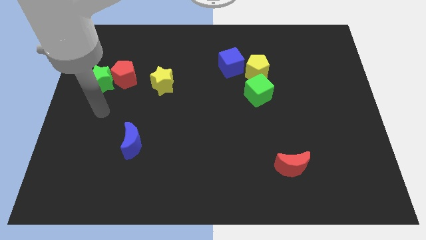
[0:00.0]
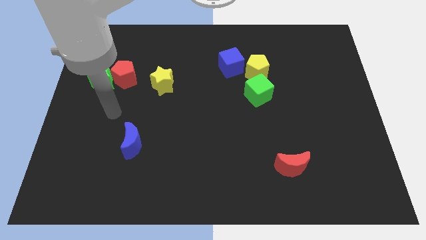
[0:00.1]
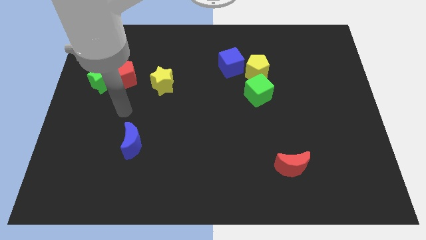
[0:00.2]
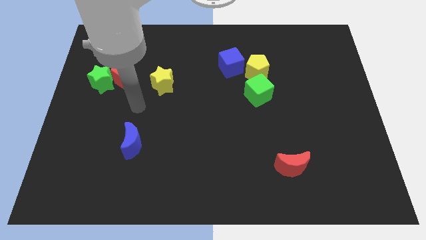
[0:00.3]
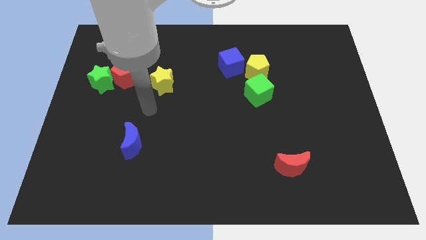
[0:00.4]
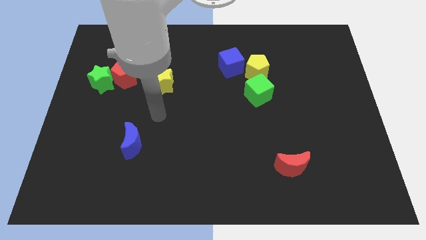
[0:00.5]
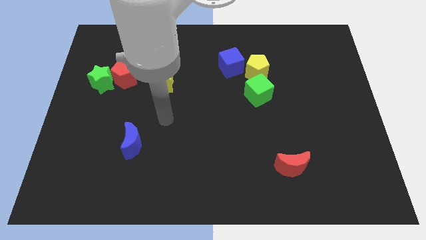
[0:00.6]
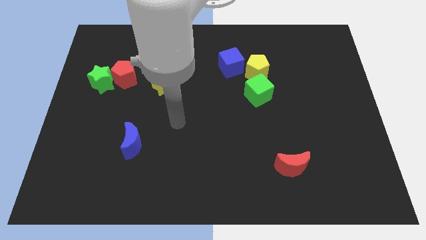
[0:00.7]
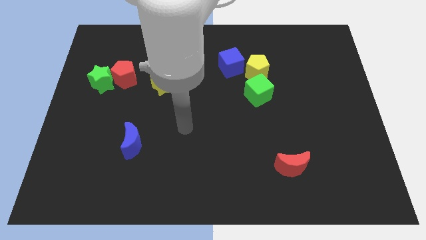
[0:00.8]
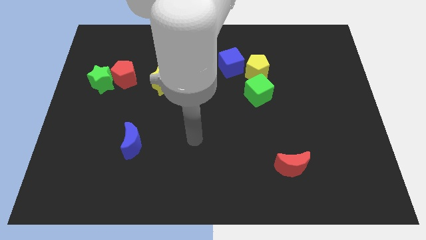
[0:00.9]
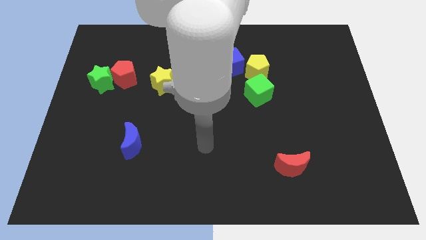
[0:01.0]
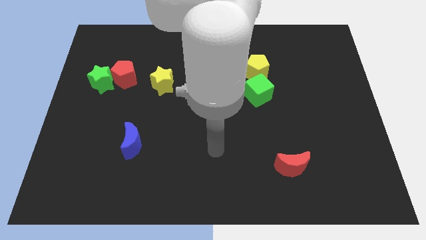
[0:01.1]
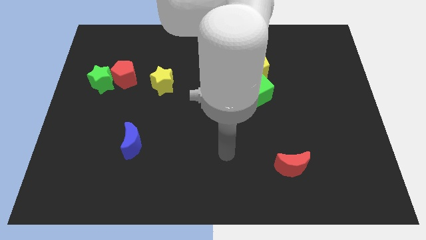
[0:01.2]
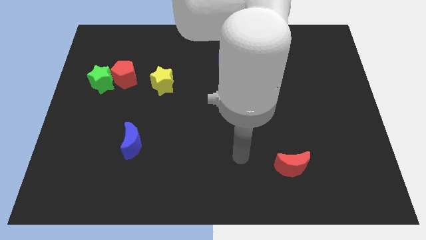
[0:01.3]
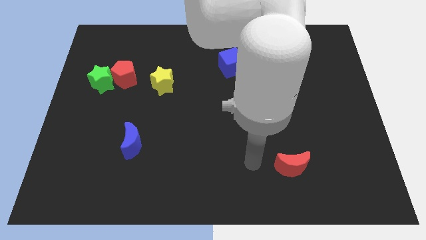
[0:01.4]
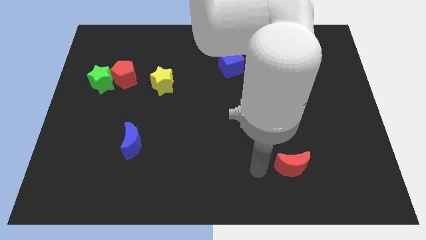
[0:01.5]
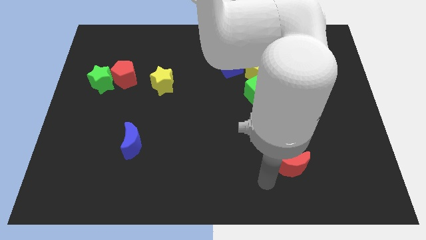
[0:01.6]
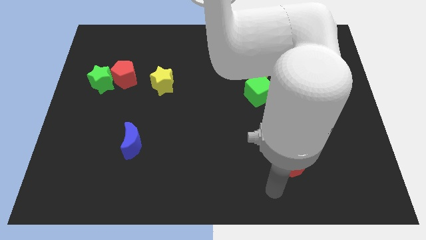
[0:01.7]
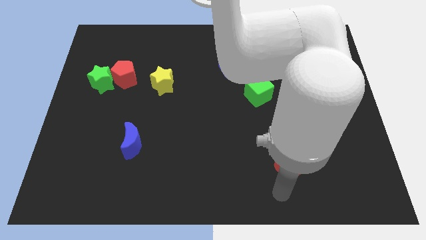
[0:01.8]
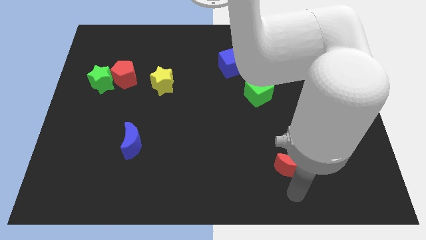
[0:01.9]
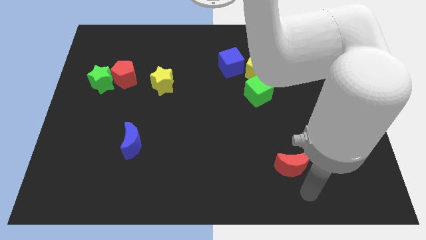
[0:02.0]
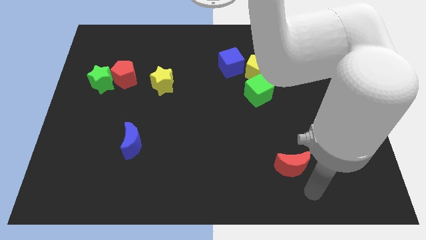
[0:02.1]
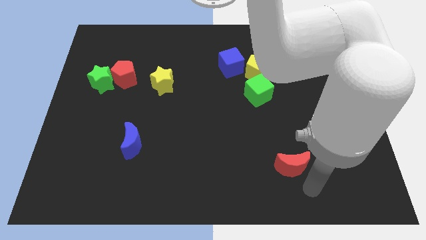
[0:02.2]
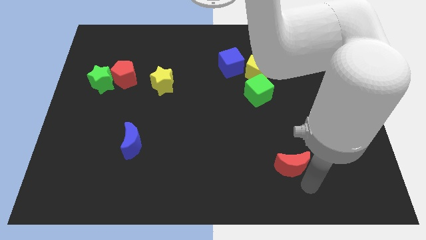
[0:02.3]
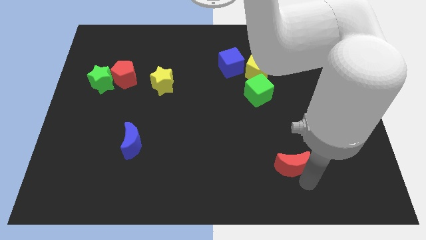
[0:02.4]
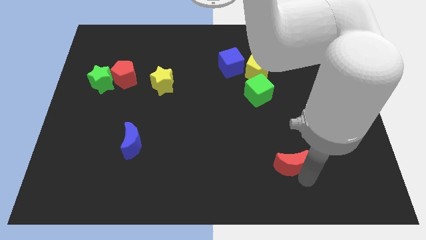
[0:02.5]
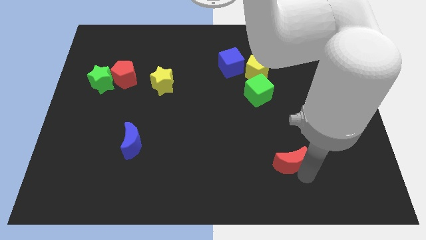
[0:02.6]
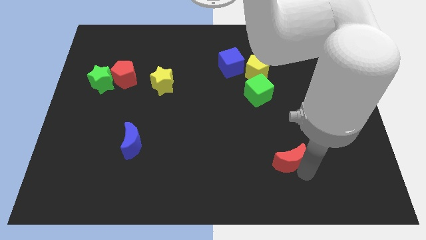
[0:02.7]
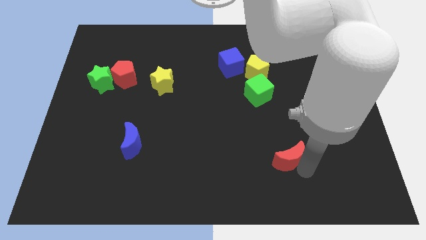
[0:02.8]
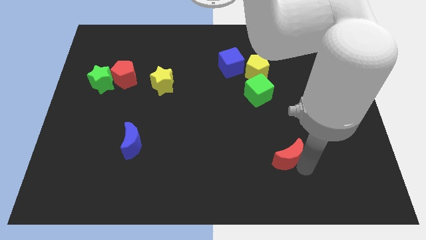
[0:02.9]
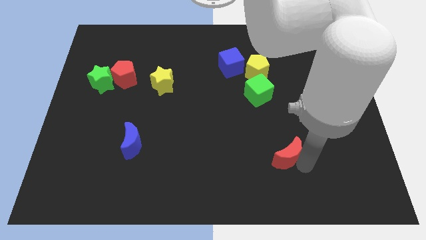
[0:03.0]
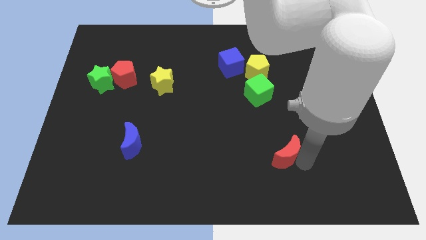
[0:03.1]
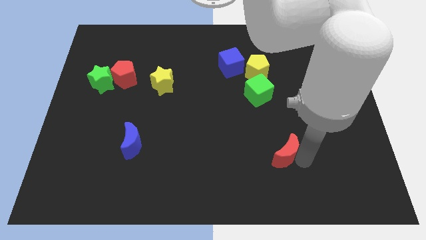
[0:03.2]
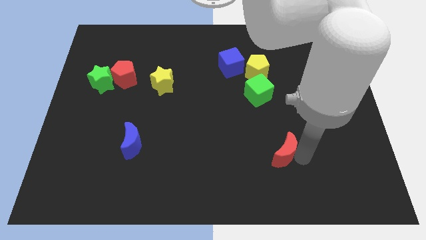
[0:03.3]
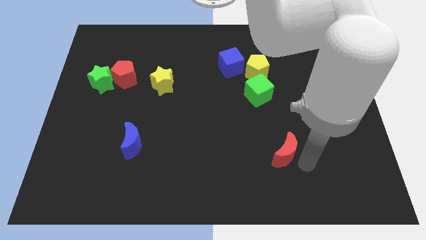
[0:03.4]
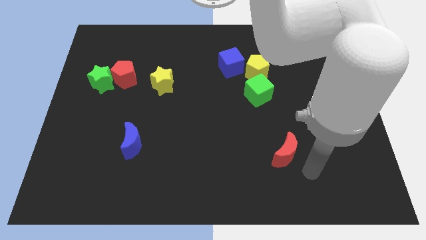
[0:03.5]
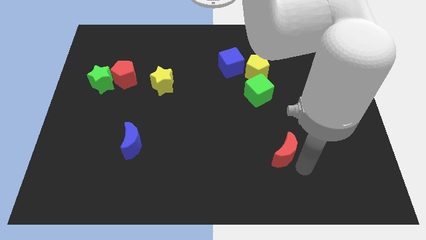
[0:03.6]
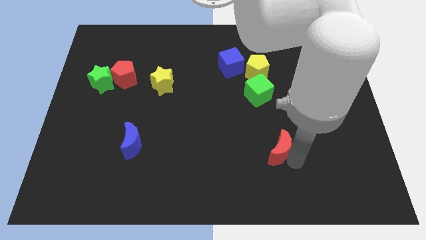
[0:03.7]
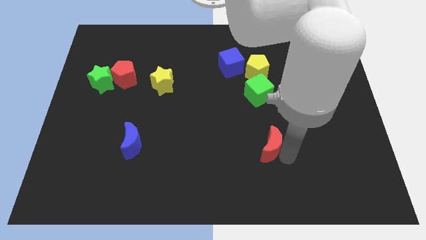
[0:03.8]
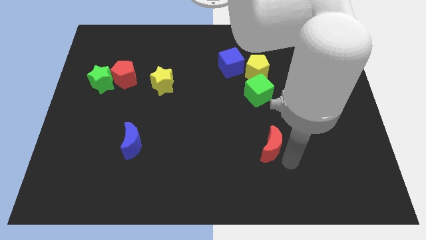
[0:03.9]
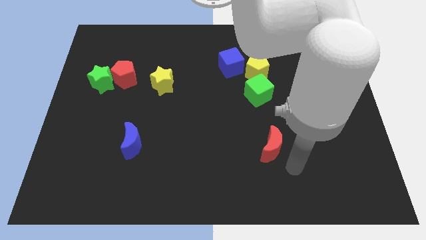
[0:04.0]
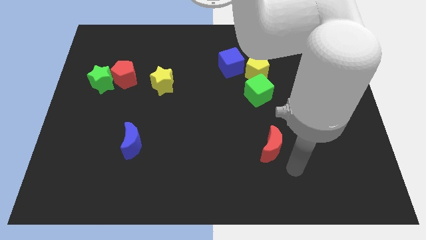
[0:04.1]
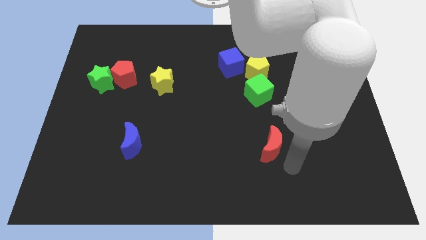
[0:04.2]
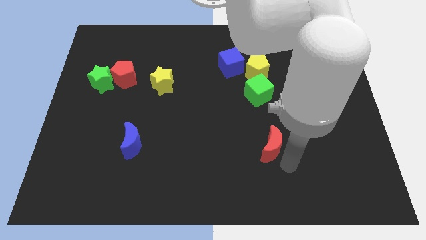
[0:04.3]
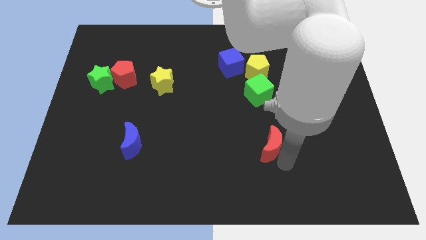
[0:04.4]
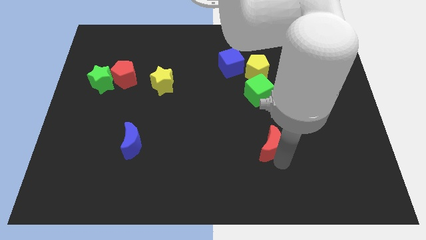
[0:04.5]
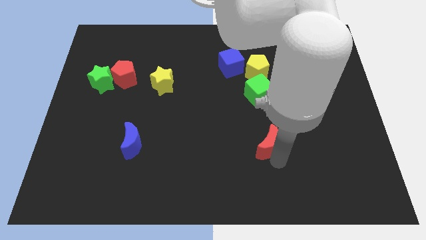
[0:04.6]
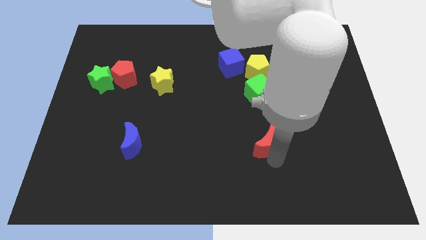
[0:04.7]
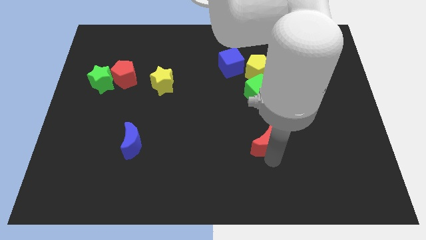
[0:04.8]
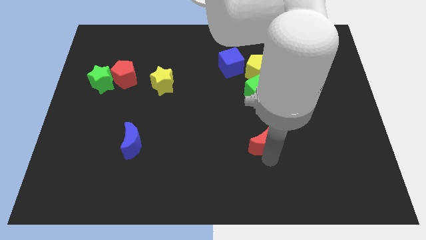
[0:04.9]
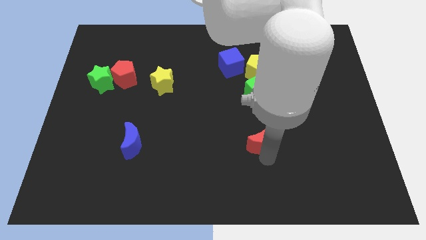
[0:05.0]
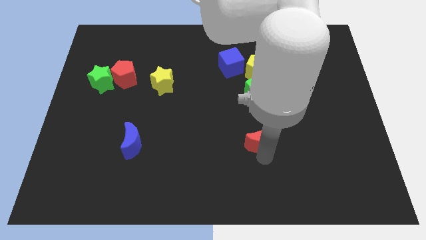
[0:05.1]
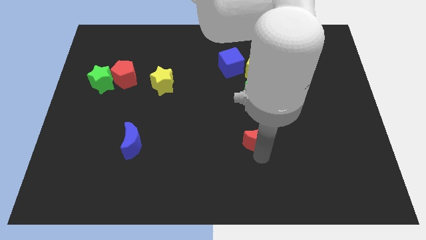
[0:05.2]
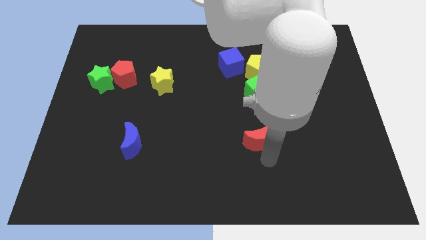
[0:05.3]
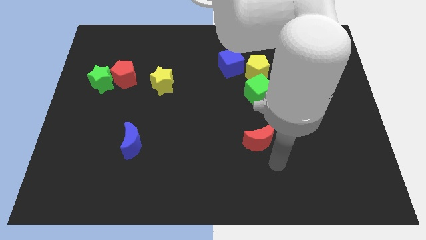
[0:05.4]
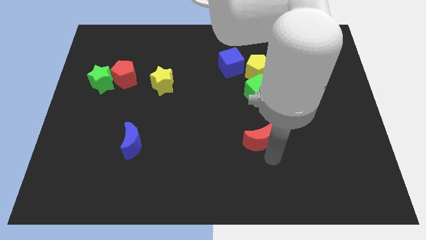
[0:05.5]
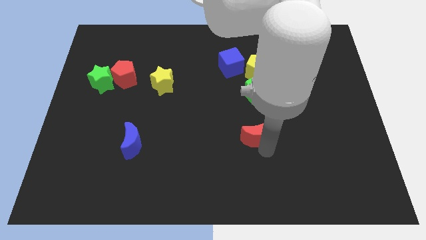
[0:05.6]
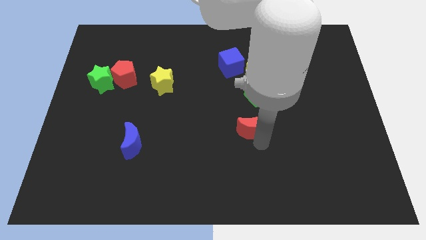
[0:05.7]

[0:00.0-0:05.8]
put the red moon to the center
